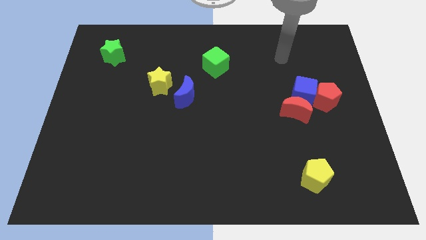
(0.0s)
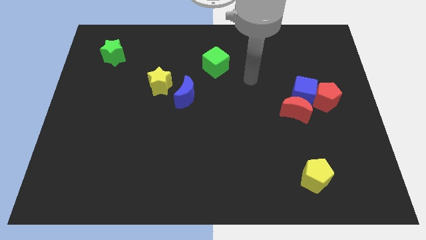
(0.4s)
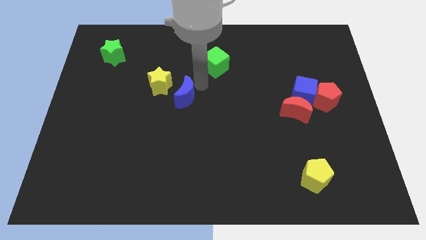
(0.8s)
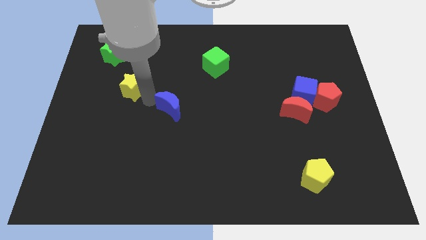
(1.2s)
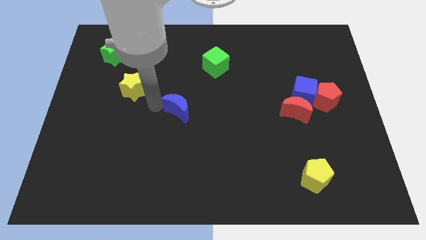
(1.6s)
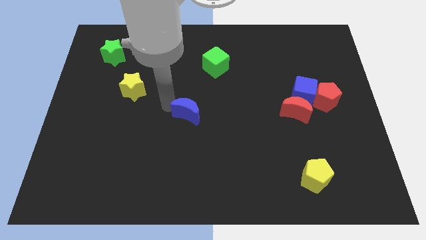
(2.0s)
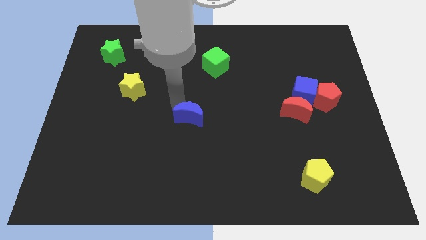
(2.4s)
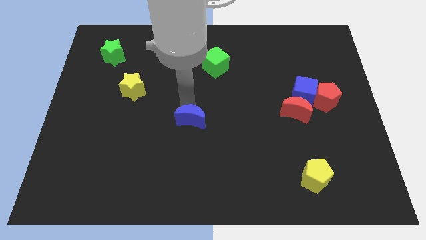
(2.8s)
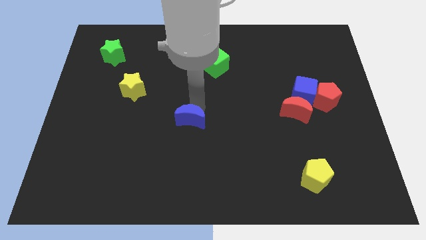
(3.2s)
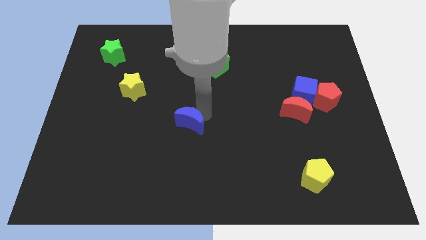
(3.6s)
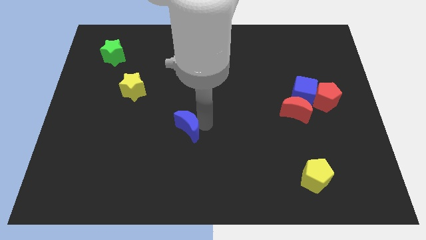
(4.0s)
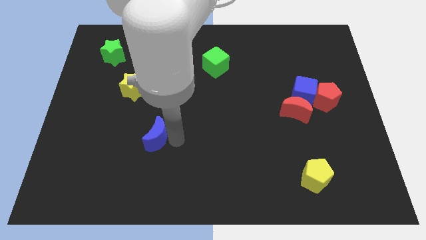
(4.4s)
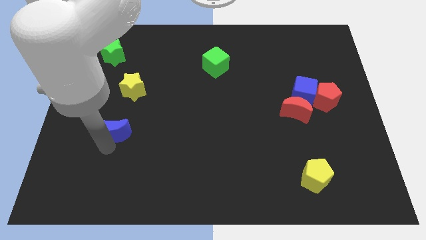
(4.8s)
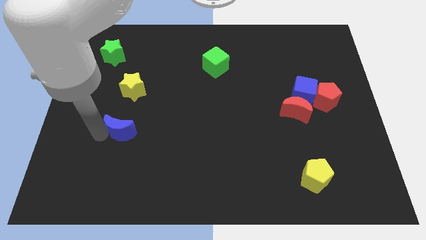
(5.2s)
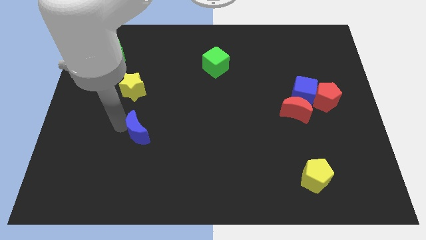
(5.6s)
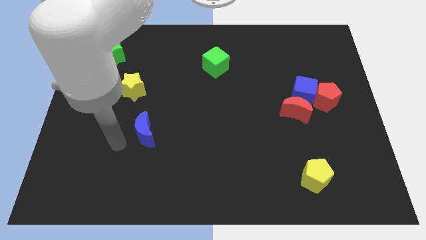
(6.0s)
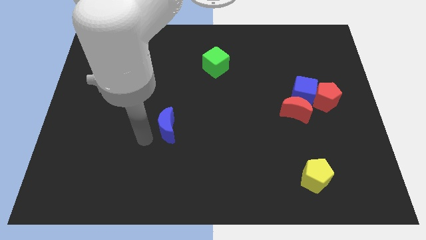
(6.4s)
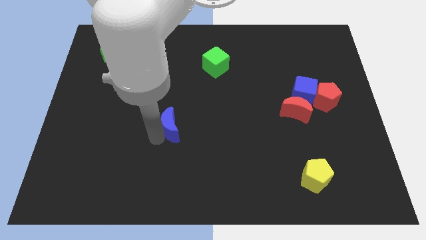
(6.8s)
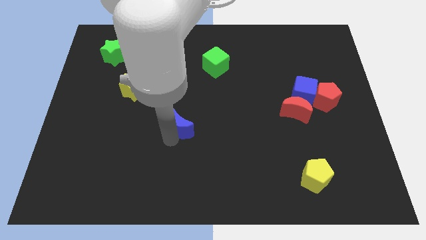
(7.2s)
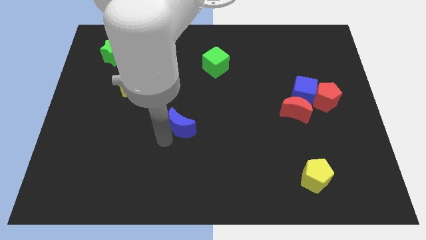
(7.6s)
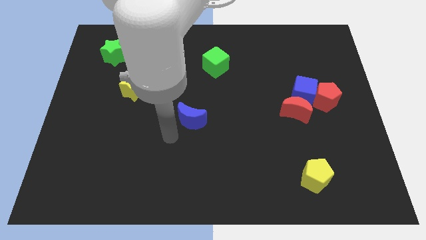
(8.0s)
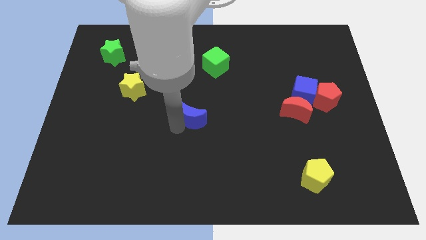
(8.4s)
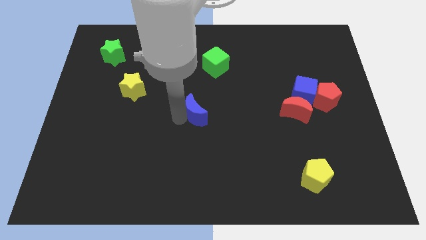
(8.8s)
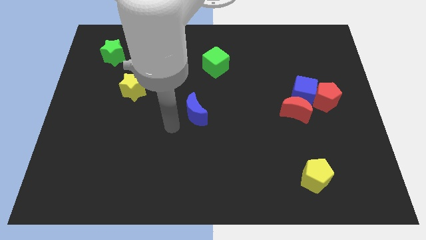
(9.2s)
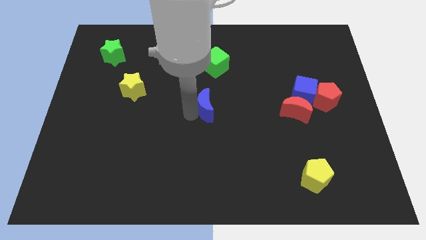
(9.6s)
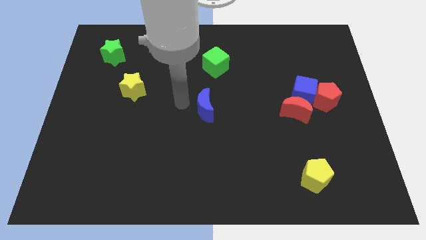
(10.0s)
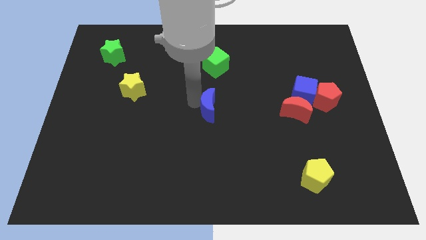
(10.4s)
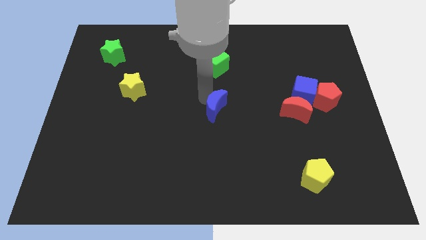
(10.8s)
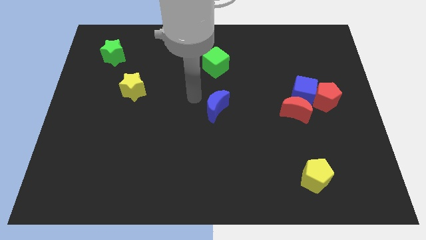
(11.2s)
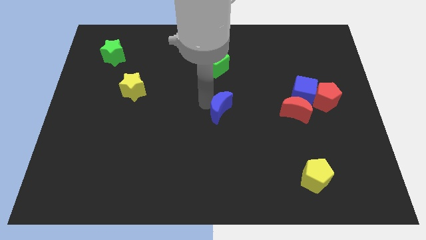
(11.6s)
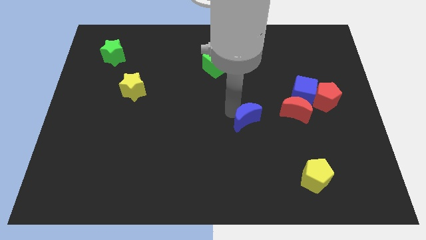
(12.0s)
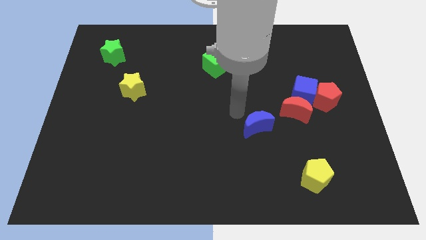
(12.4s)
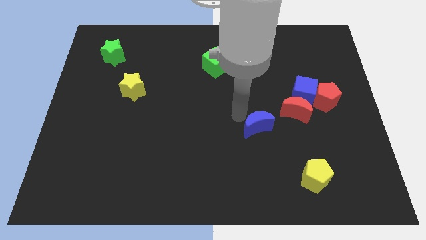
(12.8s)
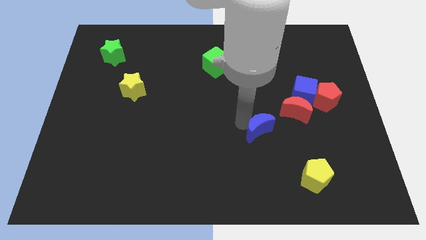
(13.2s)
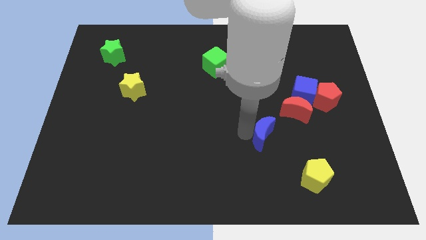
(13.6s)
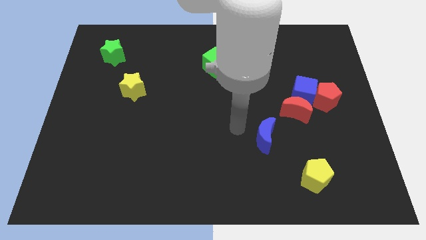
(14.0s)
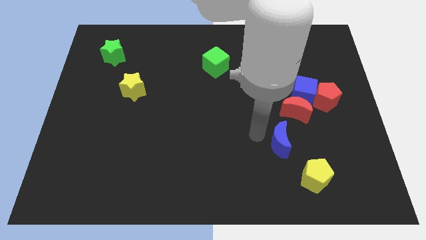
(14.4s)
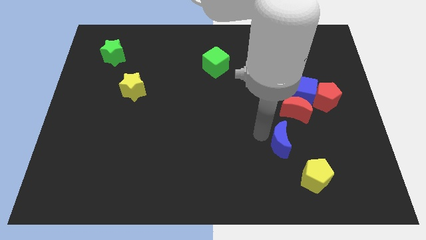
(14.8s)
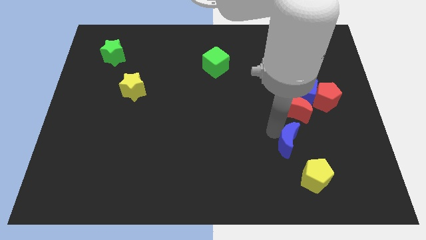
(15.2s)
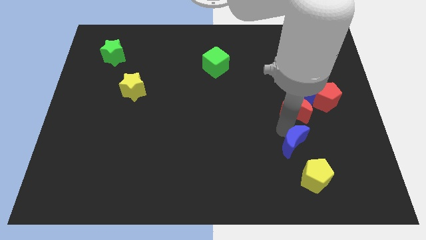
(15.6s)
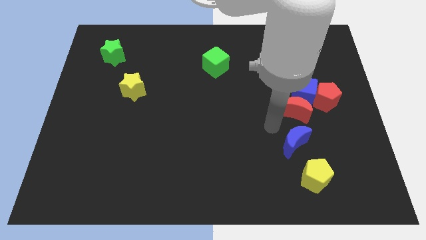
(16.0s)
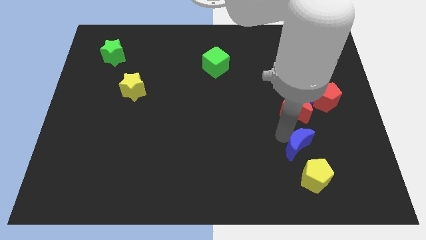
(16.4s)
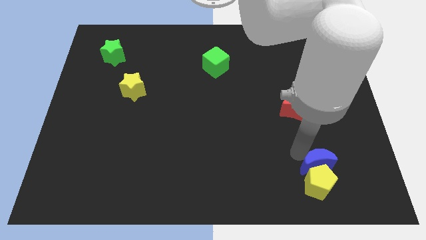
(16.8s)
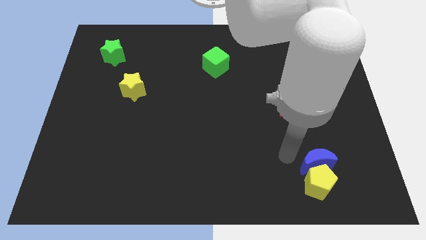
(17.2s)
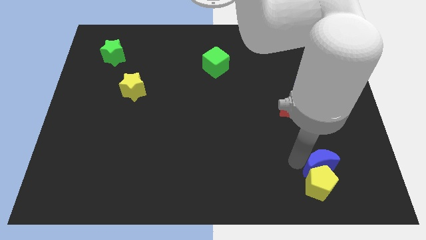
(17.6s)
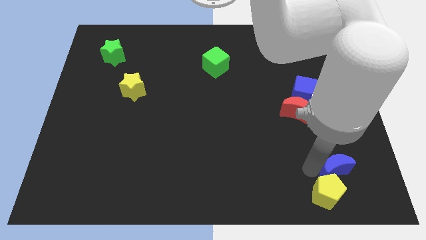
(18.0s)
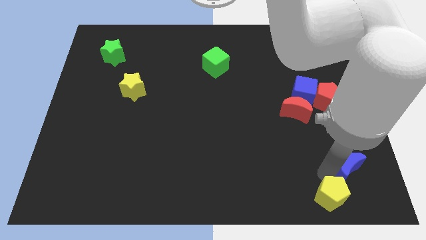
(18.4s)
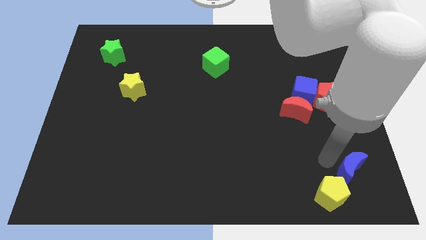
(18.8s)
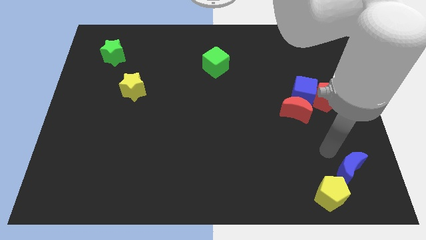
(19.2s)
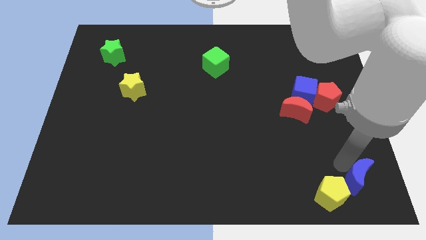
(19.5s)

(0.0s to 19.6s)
push the blue moon to the bottom right of the board

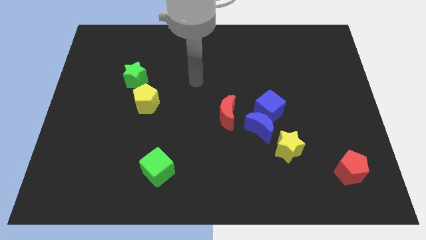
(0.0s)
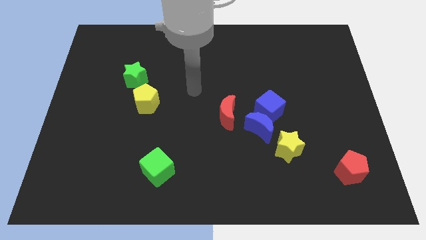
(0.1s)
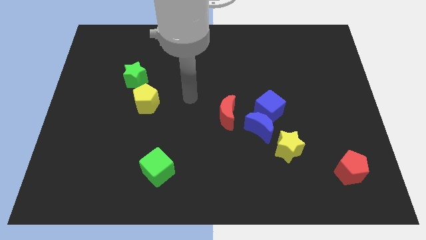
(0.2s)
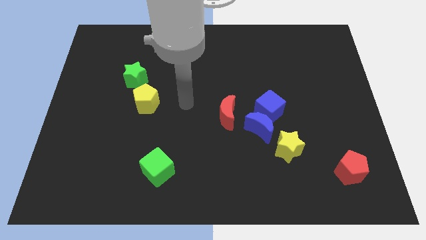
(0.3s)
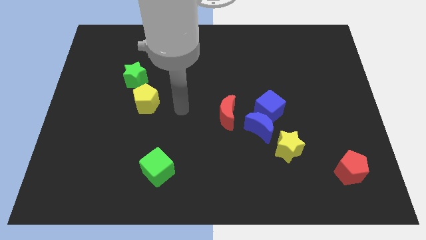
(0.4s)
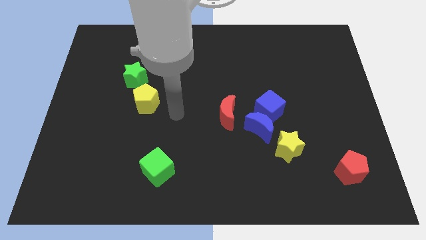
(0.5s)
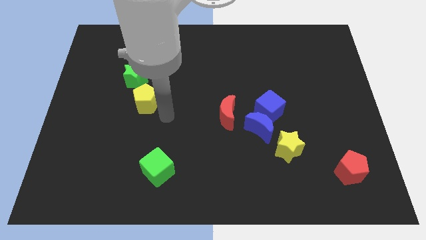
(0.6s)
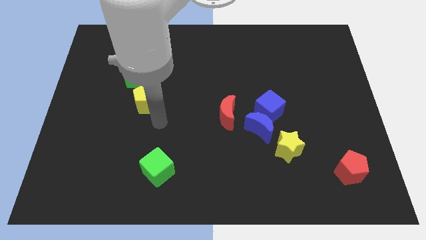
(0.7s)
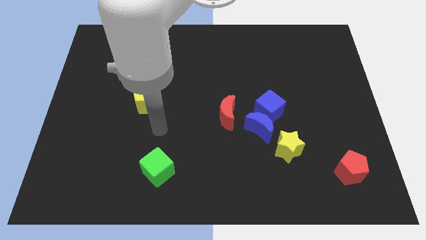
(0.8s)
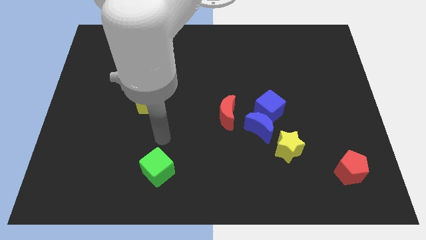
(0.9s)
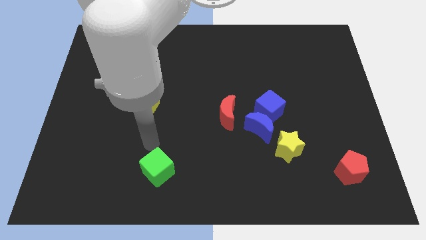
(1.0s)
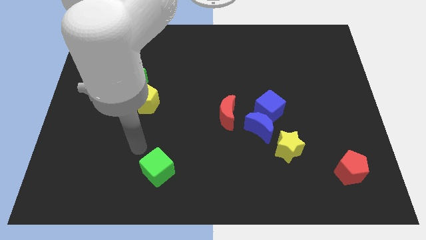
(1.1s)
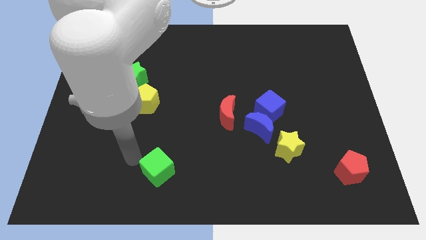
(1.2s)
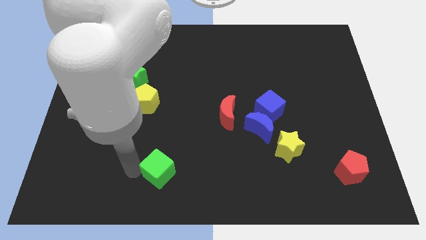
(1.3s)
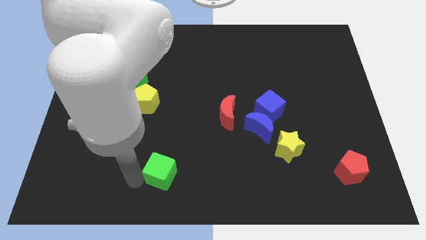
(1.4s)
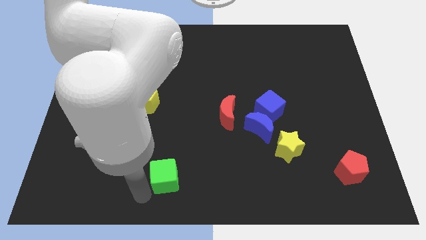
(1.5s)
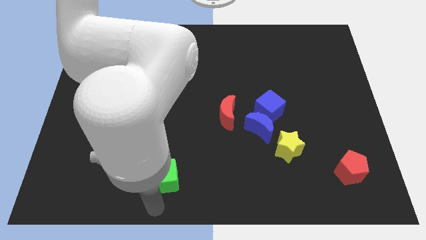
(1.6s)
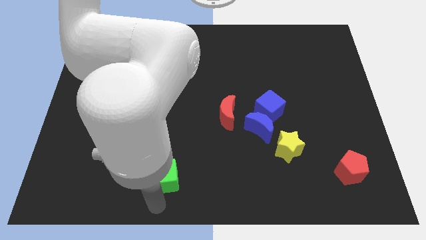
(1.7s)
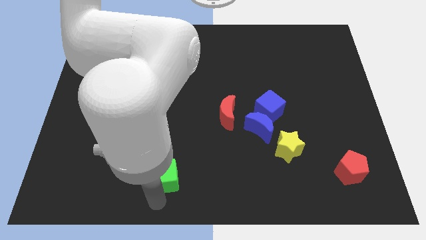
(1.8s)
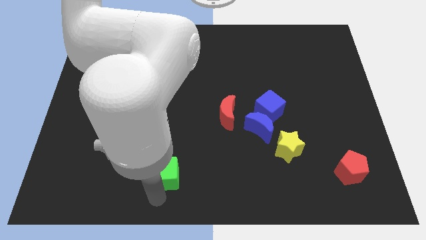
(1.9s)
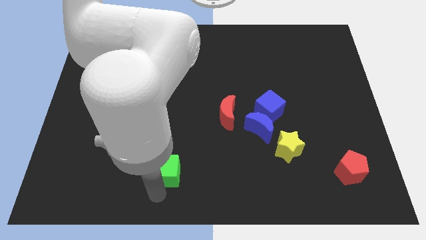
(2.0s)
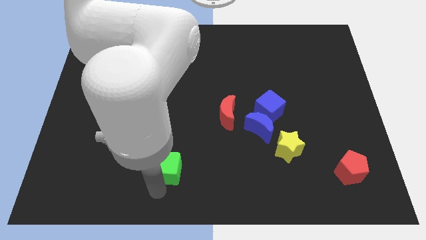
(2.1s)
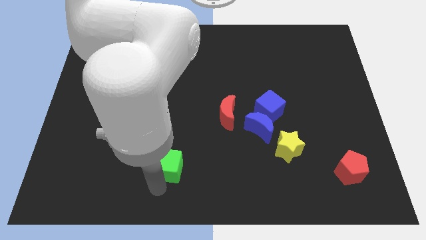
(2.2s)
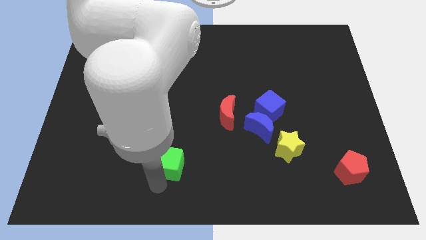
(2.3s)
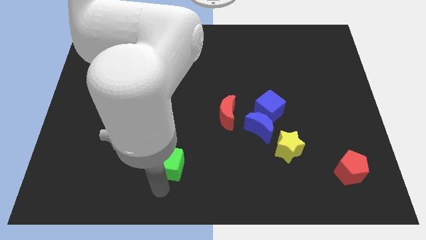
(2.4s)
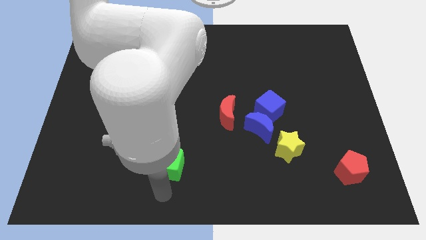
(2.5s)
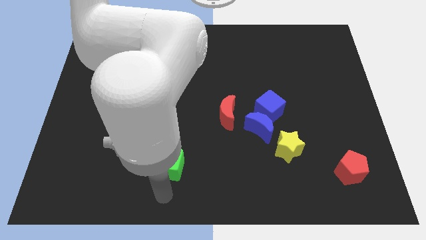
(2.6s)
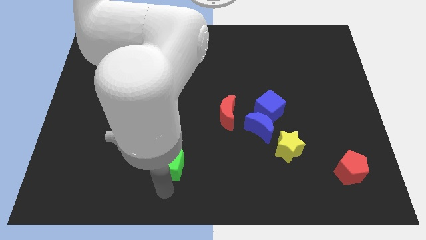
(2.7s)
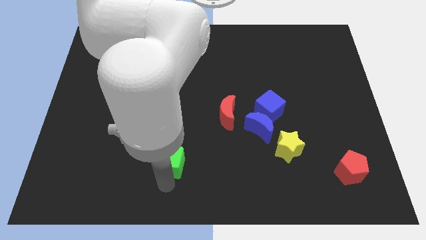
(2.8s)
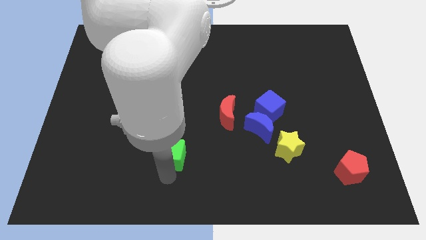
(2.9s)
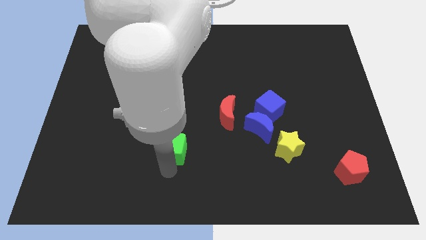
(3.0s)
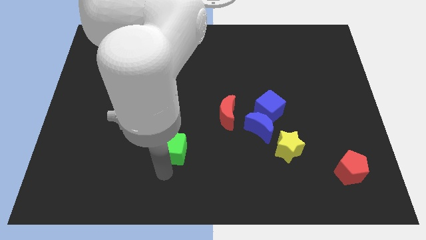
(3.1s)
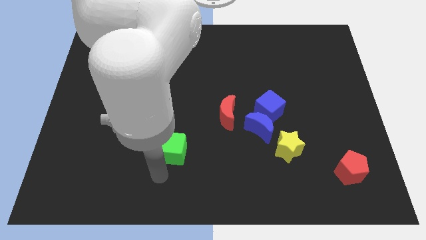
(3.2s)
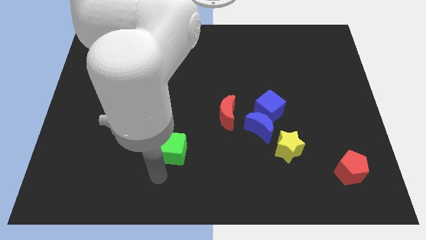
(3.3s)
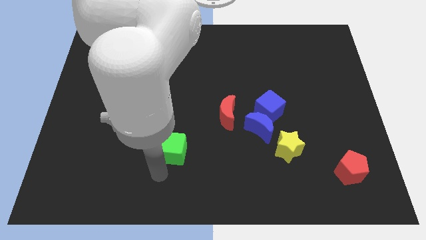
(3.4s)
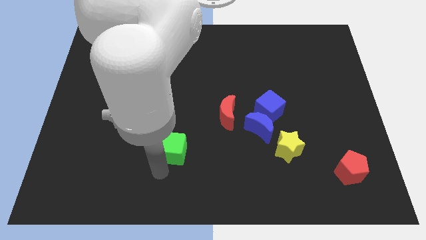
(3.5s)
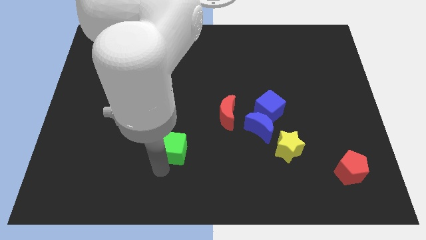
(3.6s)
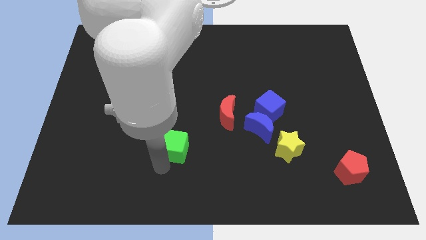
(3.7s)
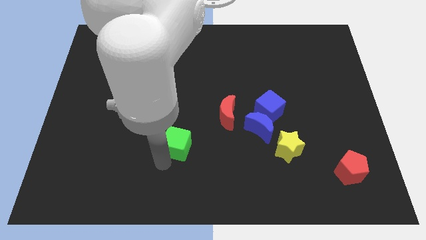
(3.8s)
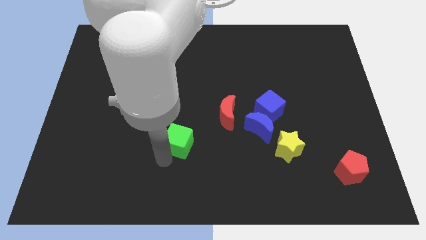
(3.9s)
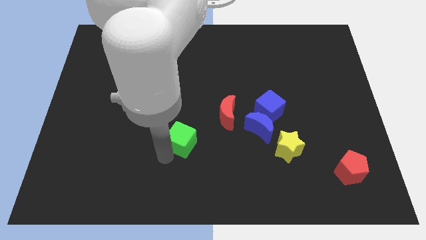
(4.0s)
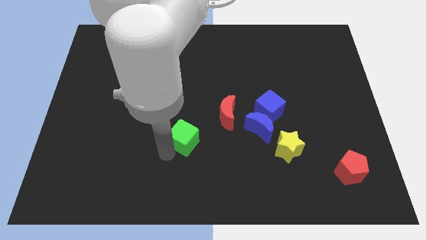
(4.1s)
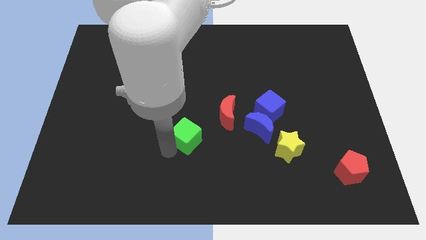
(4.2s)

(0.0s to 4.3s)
slide the green cube to the center
